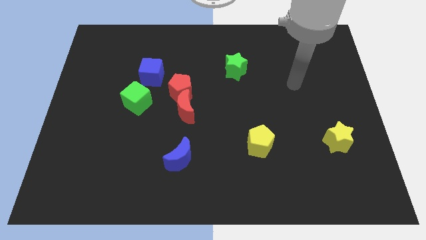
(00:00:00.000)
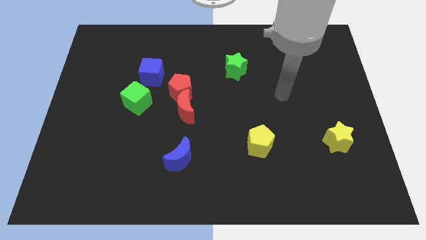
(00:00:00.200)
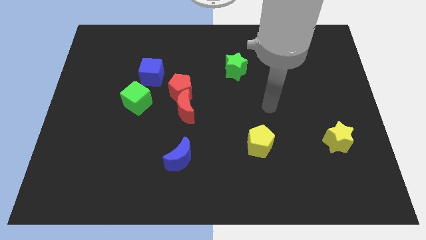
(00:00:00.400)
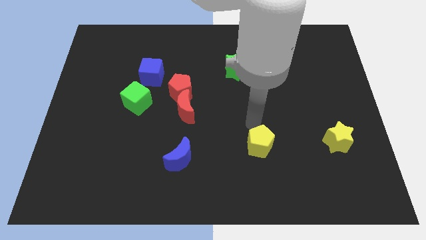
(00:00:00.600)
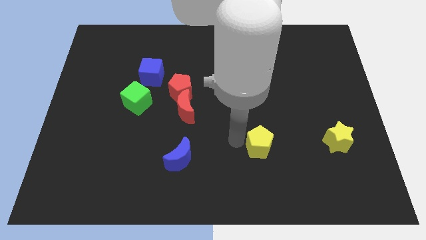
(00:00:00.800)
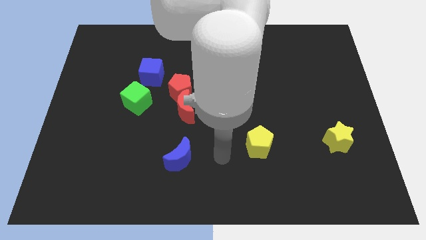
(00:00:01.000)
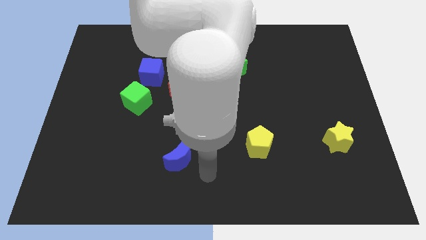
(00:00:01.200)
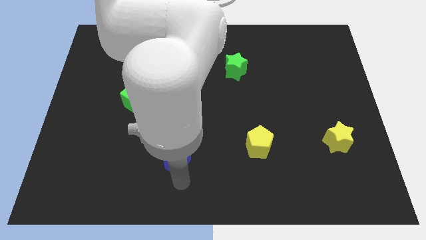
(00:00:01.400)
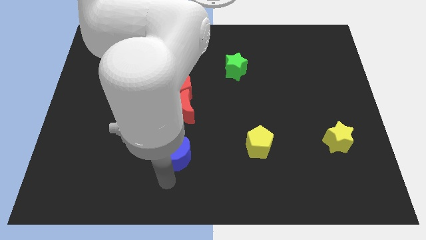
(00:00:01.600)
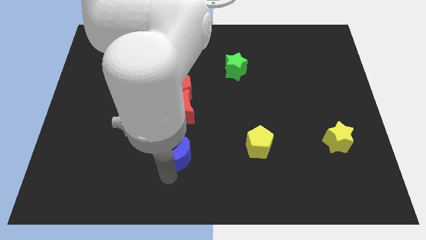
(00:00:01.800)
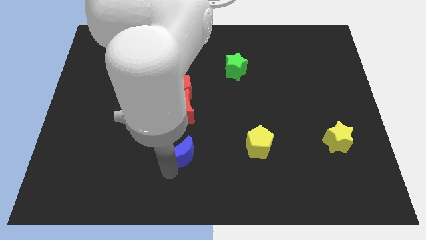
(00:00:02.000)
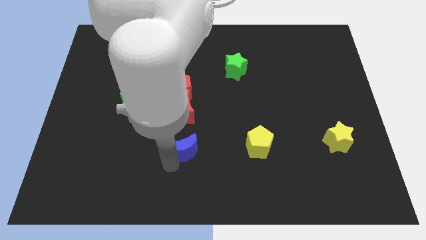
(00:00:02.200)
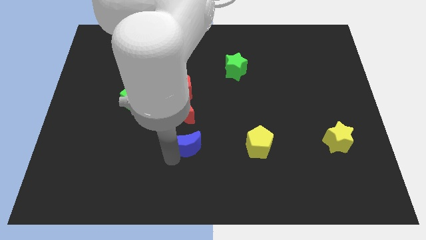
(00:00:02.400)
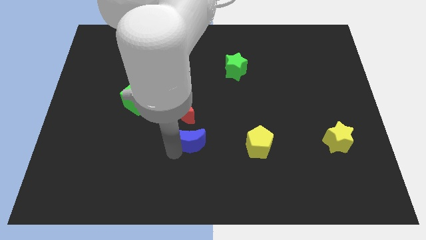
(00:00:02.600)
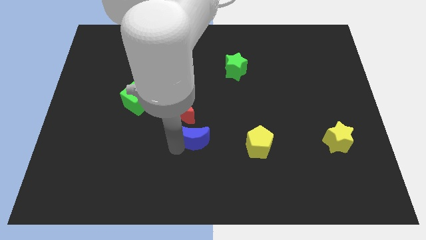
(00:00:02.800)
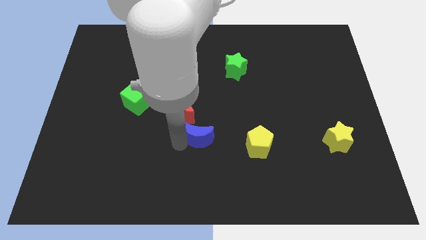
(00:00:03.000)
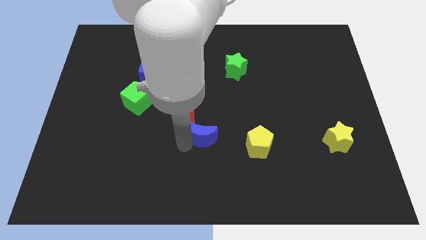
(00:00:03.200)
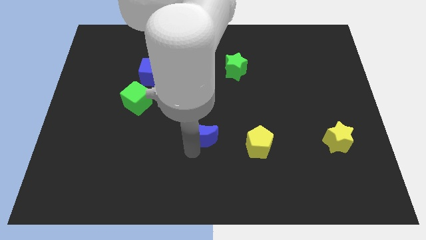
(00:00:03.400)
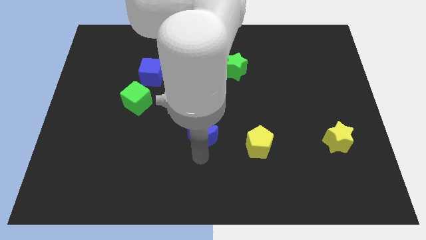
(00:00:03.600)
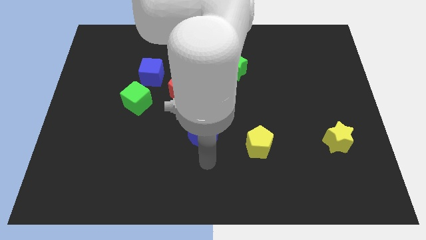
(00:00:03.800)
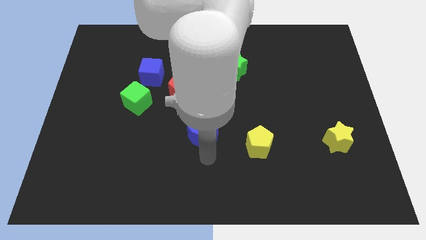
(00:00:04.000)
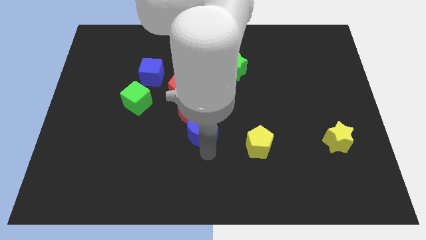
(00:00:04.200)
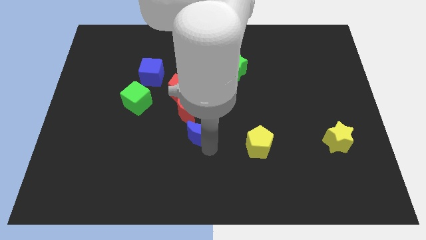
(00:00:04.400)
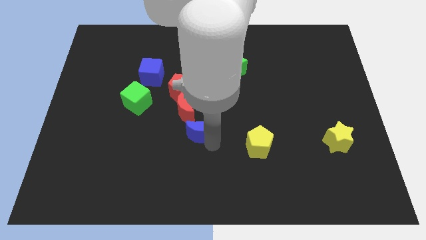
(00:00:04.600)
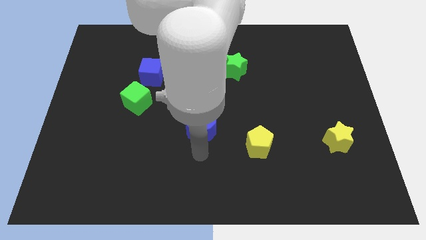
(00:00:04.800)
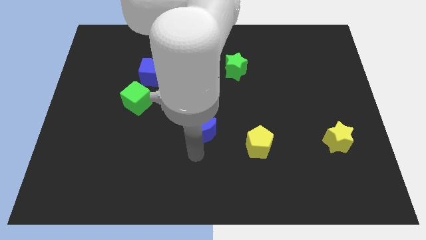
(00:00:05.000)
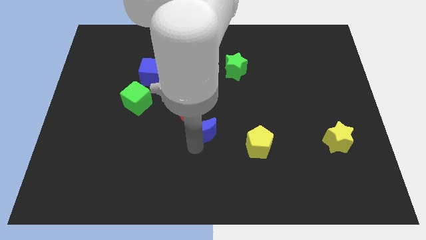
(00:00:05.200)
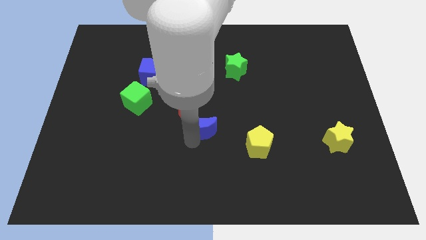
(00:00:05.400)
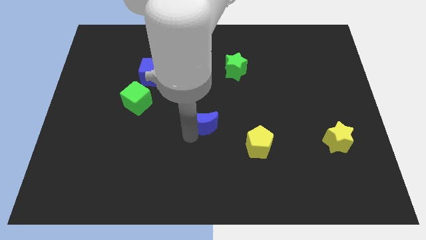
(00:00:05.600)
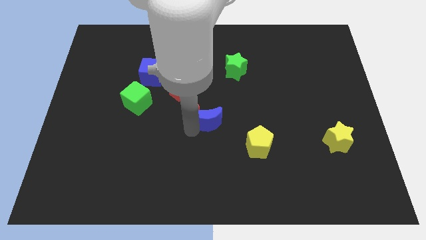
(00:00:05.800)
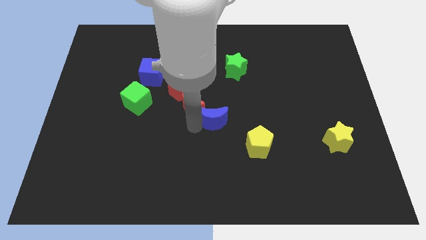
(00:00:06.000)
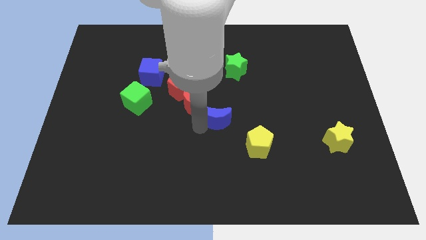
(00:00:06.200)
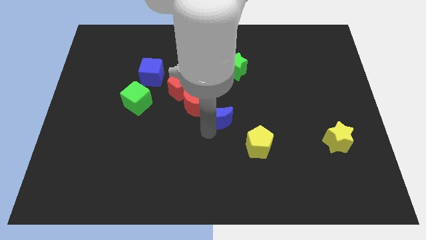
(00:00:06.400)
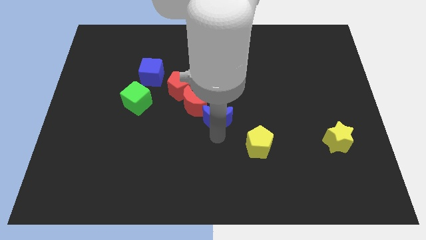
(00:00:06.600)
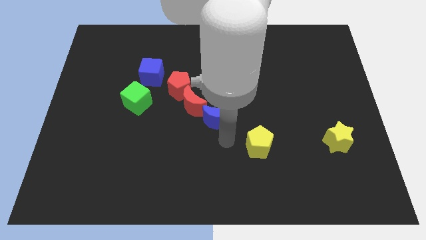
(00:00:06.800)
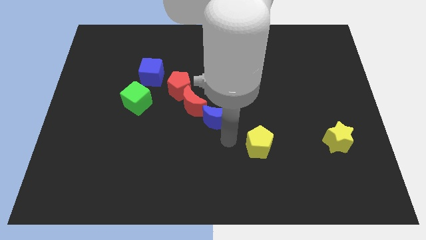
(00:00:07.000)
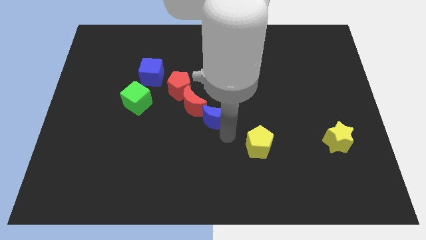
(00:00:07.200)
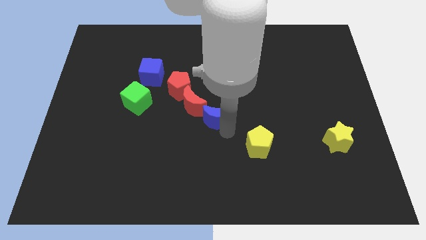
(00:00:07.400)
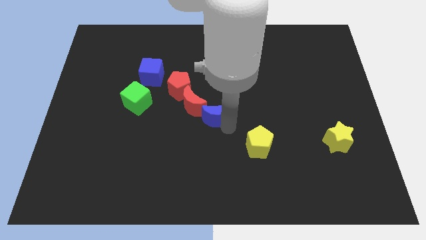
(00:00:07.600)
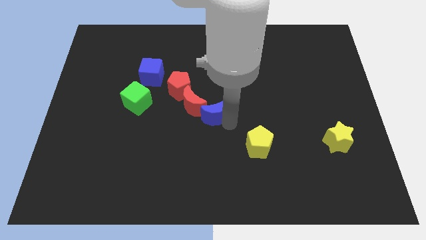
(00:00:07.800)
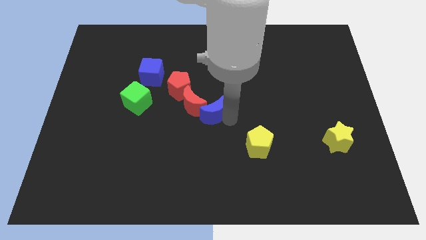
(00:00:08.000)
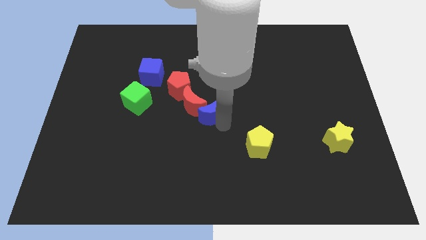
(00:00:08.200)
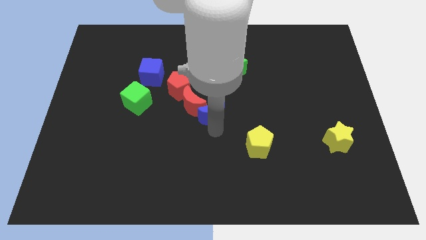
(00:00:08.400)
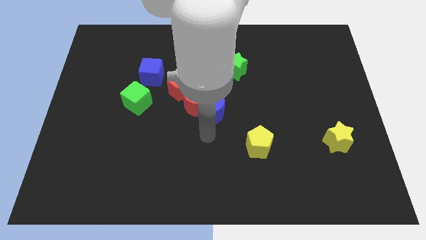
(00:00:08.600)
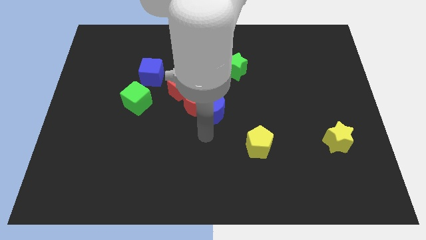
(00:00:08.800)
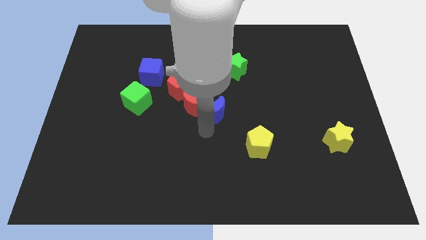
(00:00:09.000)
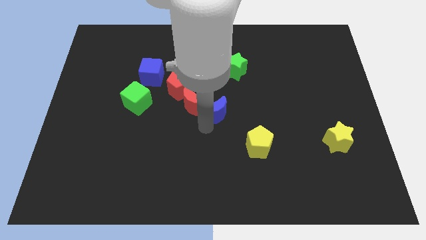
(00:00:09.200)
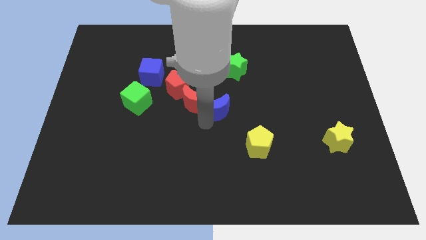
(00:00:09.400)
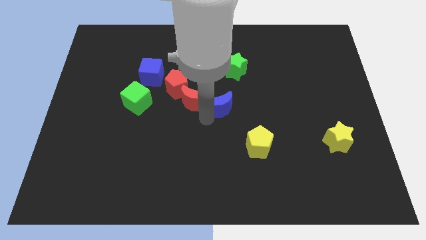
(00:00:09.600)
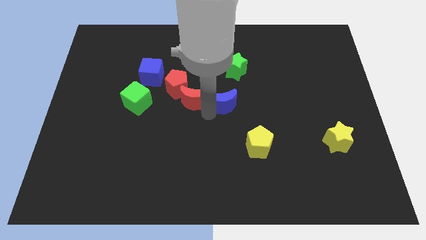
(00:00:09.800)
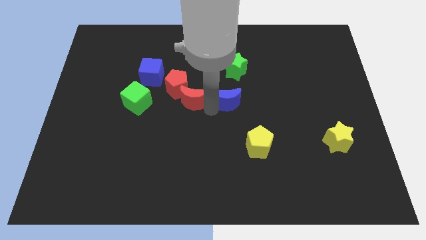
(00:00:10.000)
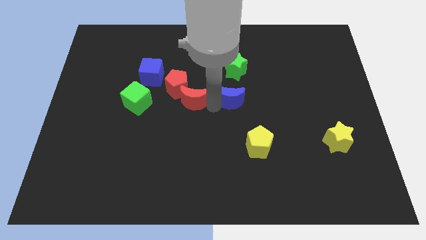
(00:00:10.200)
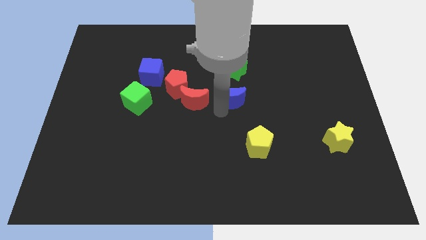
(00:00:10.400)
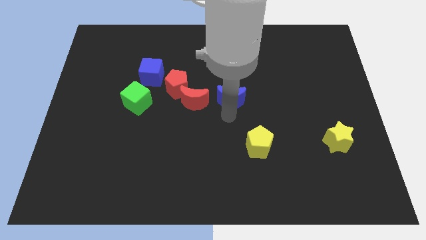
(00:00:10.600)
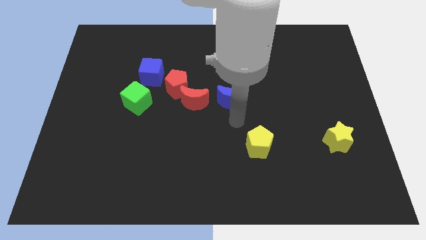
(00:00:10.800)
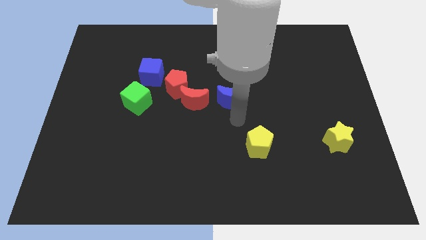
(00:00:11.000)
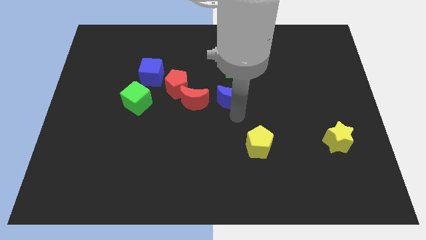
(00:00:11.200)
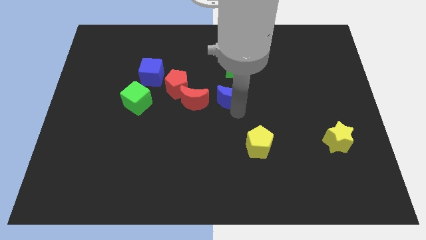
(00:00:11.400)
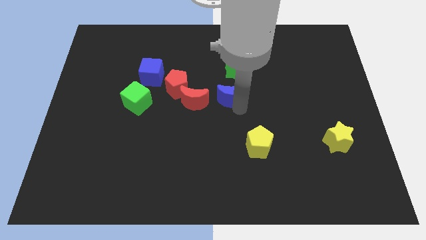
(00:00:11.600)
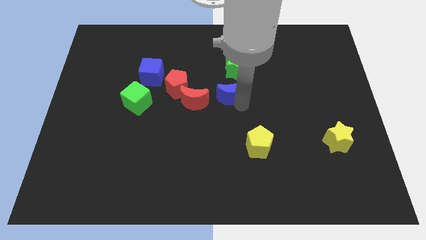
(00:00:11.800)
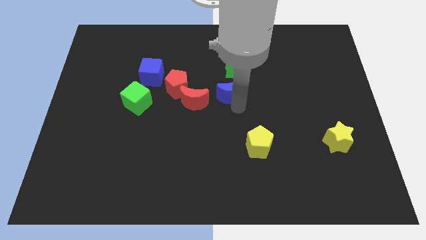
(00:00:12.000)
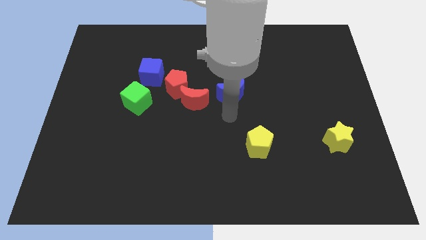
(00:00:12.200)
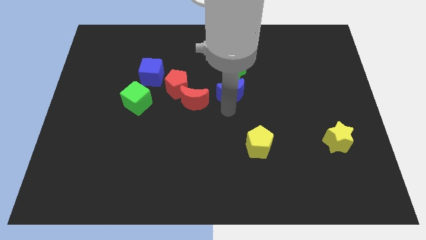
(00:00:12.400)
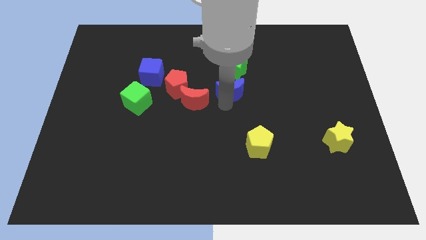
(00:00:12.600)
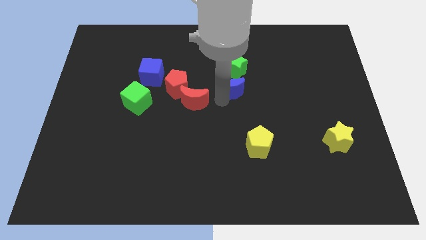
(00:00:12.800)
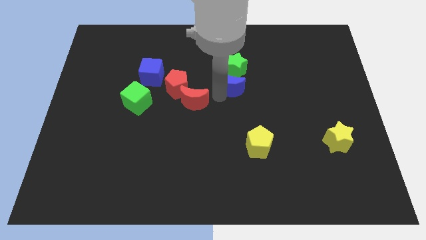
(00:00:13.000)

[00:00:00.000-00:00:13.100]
slide the blue moon to the green star

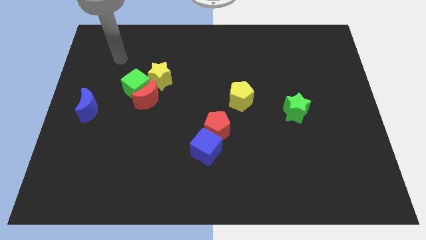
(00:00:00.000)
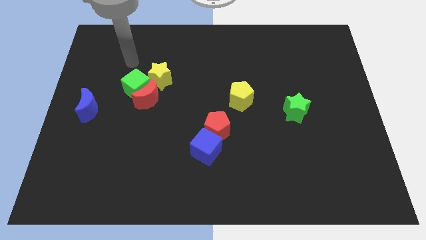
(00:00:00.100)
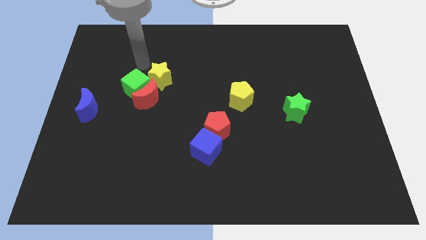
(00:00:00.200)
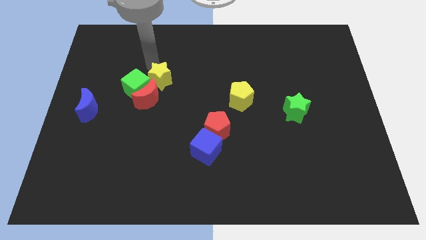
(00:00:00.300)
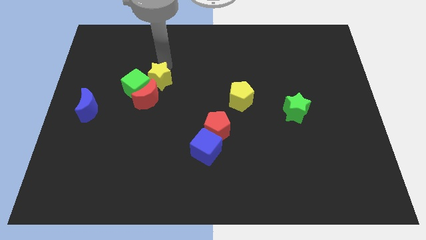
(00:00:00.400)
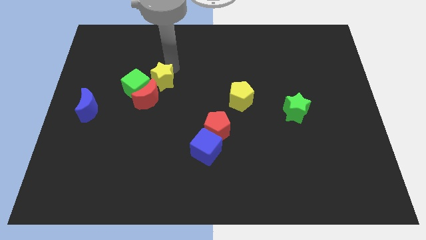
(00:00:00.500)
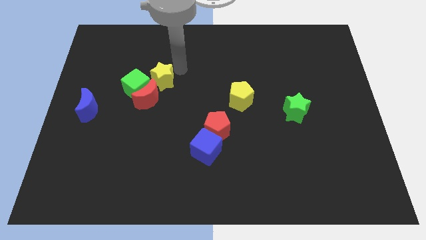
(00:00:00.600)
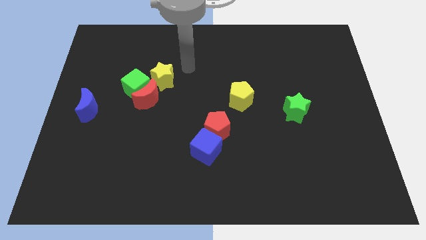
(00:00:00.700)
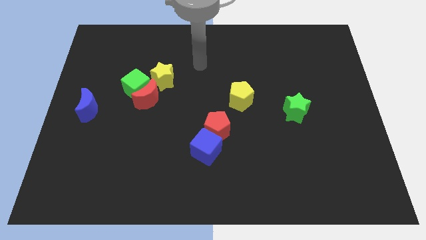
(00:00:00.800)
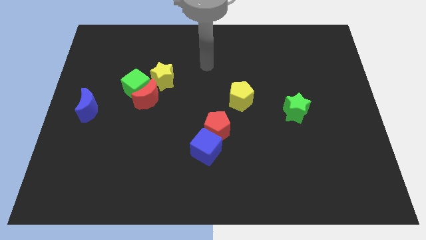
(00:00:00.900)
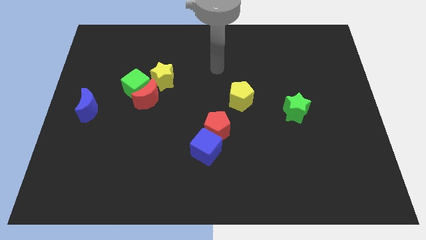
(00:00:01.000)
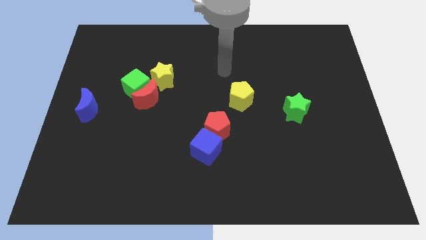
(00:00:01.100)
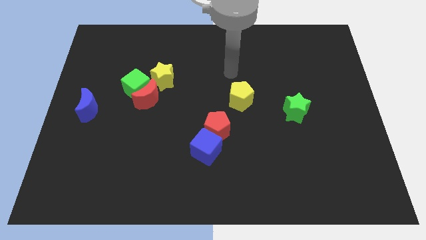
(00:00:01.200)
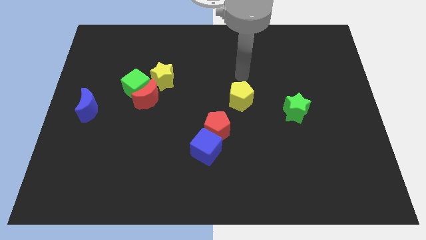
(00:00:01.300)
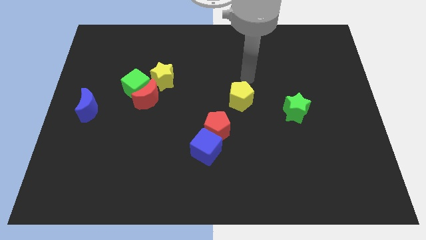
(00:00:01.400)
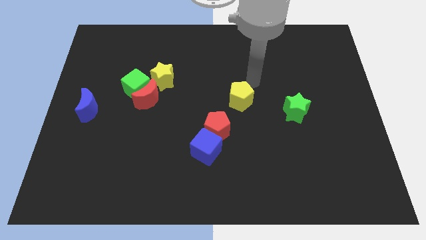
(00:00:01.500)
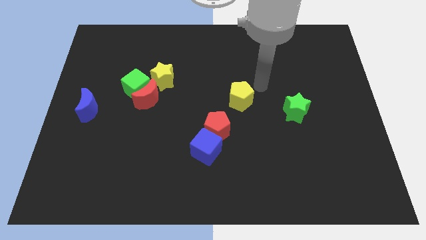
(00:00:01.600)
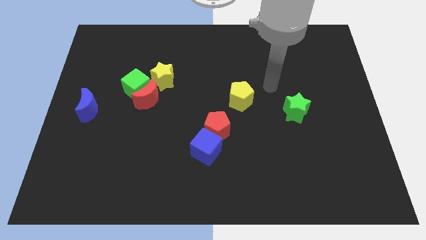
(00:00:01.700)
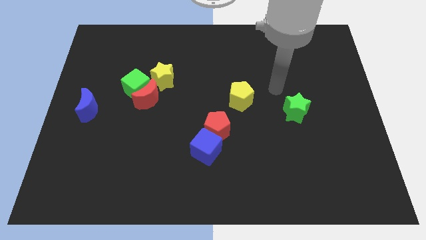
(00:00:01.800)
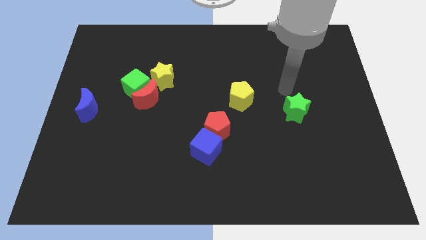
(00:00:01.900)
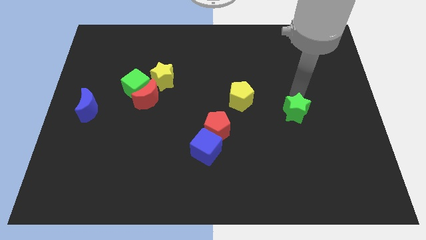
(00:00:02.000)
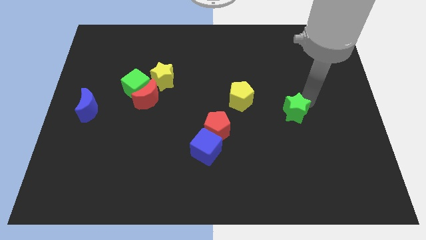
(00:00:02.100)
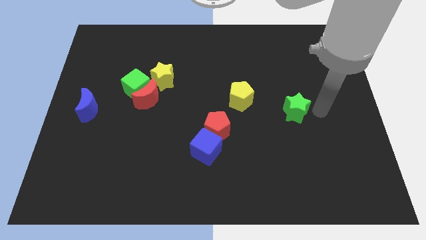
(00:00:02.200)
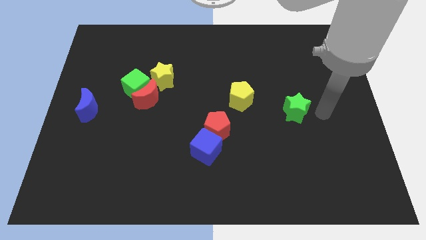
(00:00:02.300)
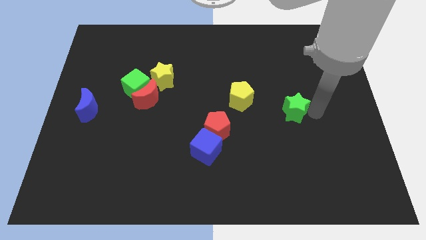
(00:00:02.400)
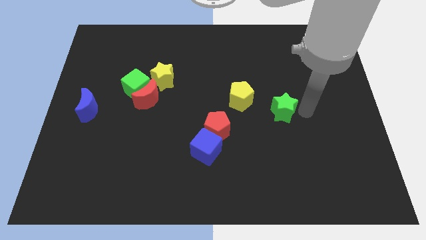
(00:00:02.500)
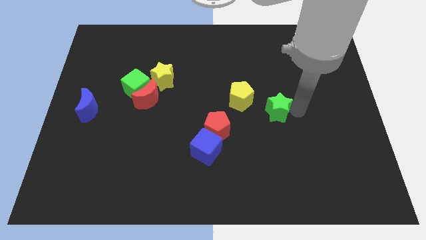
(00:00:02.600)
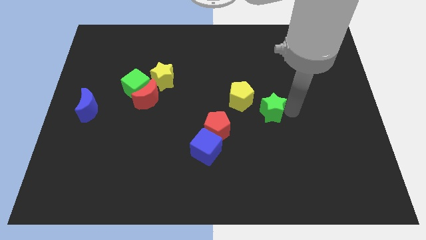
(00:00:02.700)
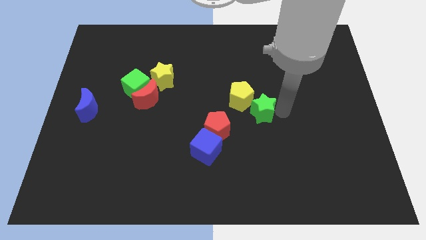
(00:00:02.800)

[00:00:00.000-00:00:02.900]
put the green star towards the yellow pentagon
